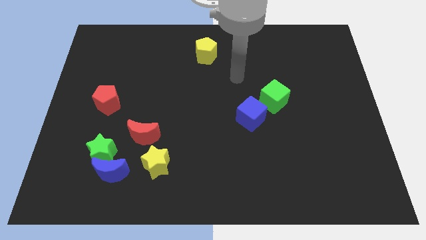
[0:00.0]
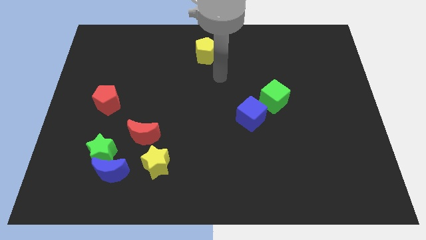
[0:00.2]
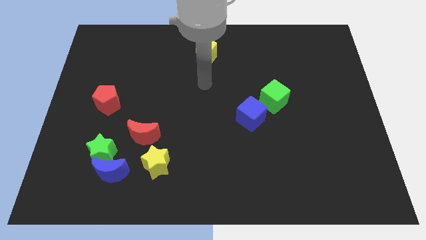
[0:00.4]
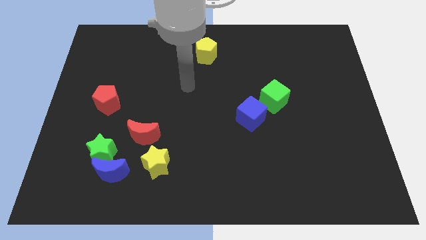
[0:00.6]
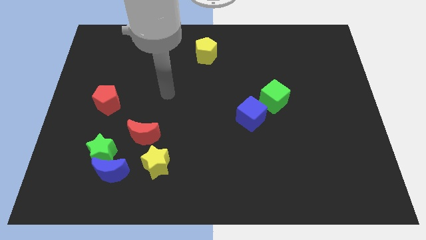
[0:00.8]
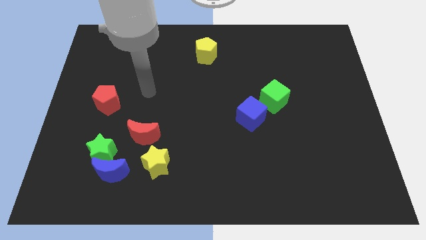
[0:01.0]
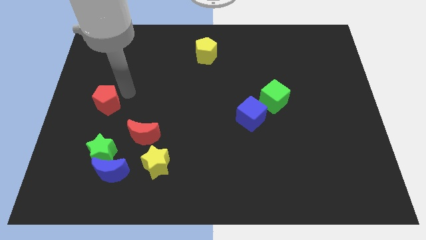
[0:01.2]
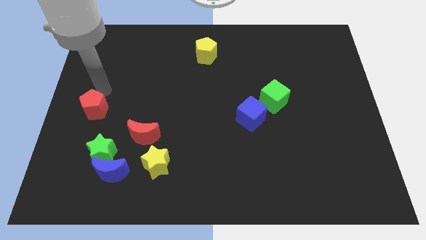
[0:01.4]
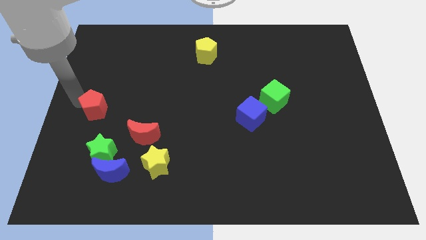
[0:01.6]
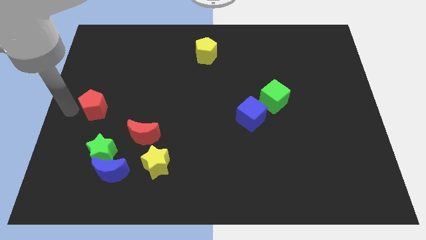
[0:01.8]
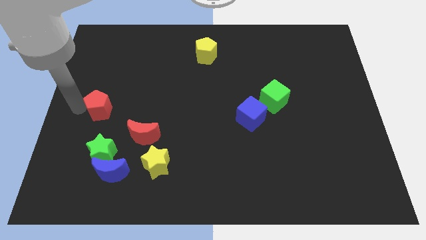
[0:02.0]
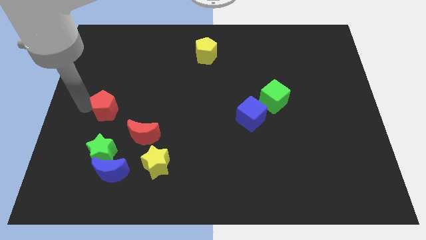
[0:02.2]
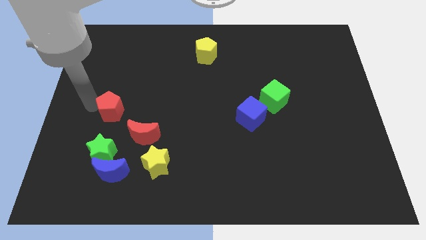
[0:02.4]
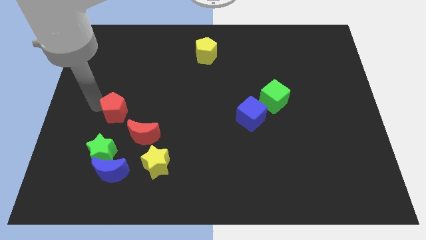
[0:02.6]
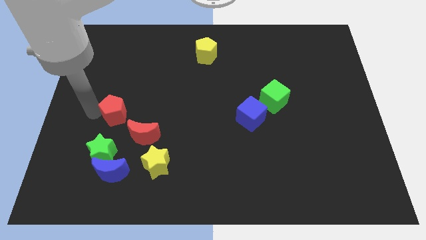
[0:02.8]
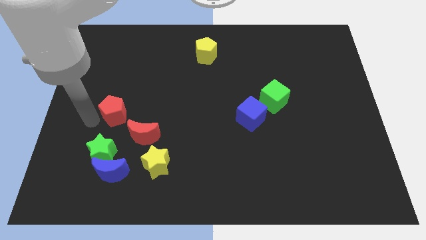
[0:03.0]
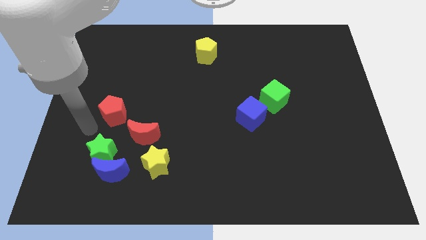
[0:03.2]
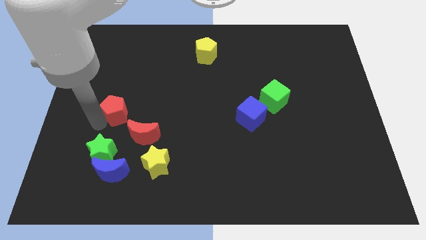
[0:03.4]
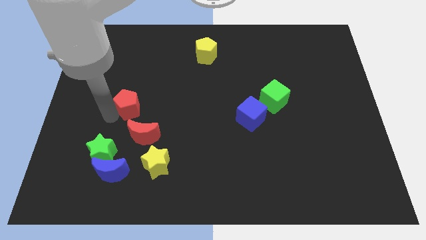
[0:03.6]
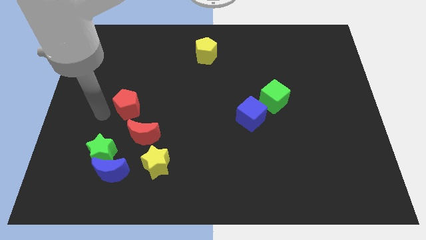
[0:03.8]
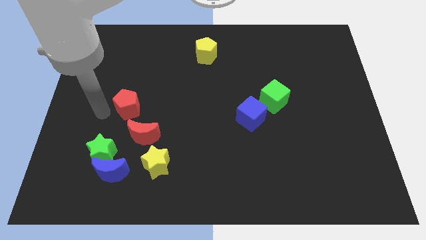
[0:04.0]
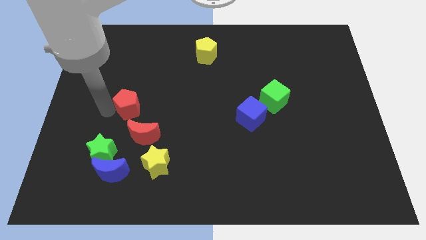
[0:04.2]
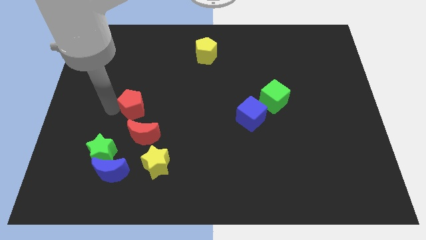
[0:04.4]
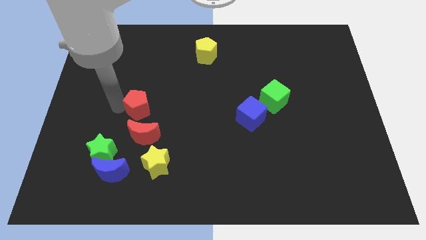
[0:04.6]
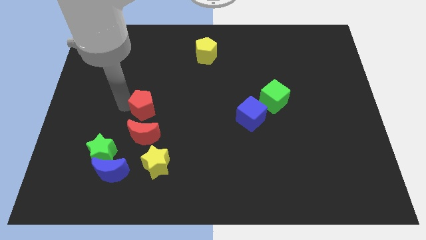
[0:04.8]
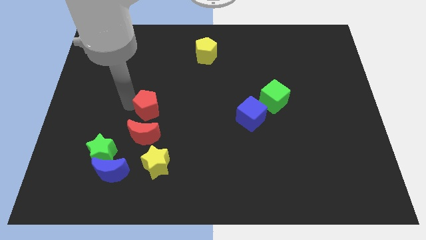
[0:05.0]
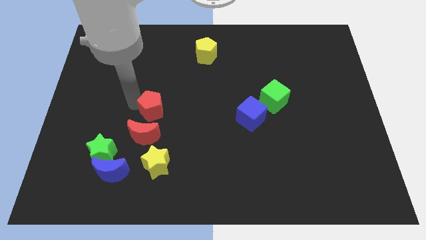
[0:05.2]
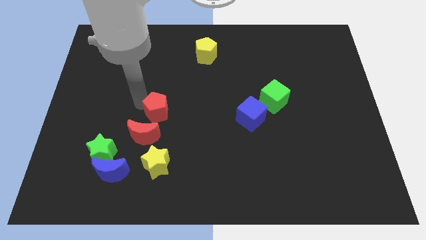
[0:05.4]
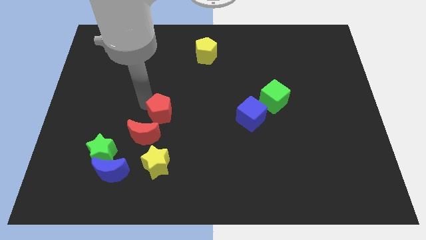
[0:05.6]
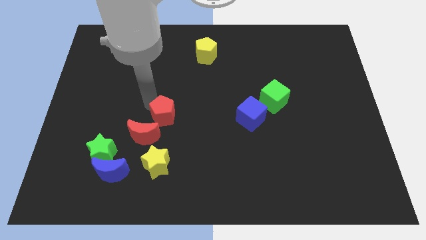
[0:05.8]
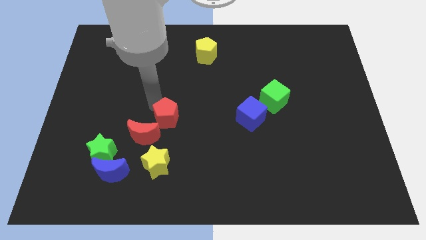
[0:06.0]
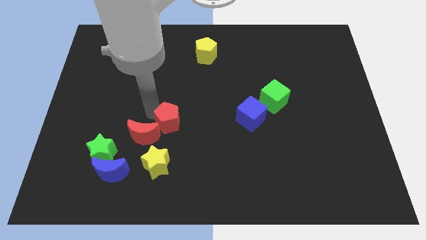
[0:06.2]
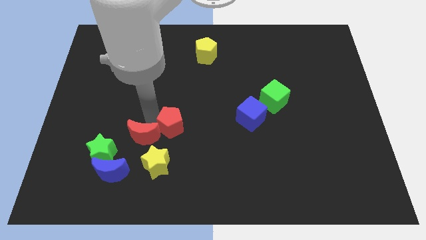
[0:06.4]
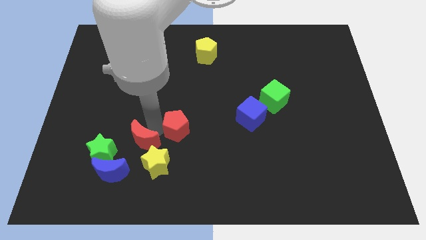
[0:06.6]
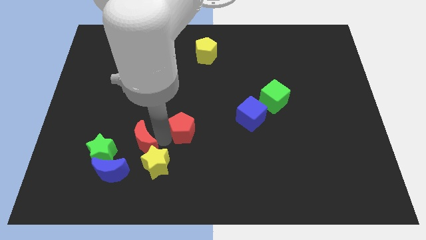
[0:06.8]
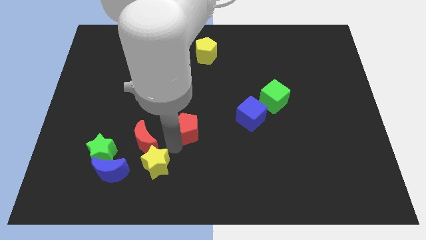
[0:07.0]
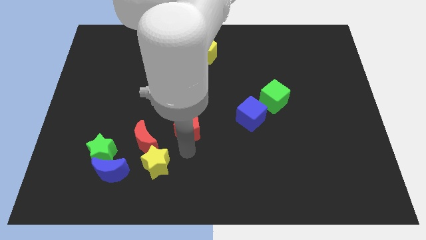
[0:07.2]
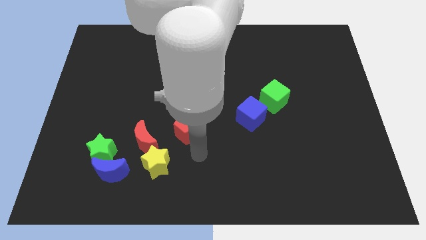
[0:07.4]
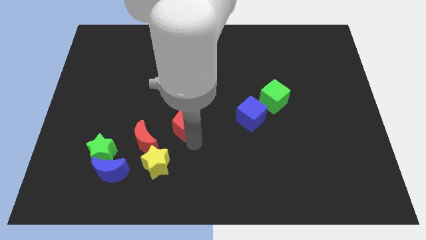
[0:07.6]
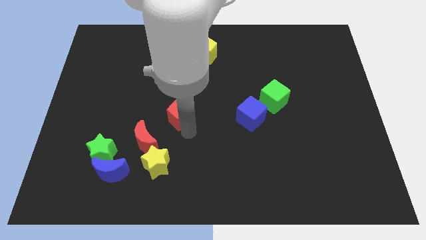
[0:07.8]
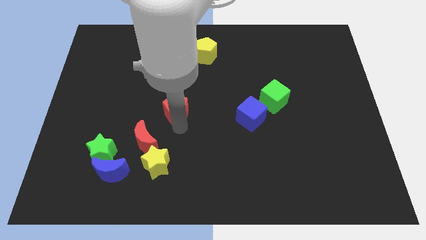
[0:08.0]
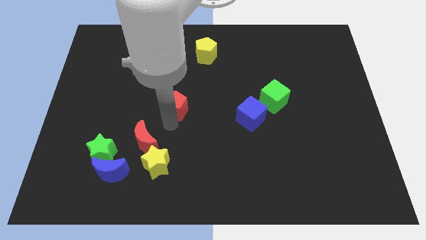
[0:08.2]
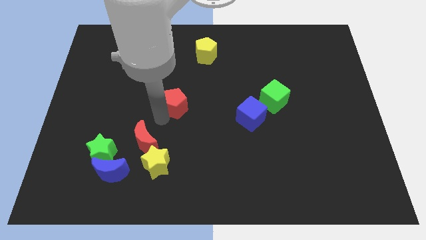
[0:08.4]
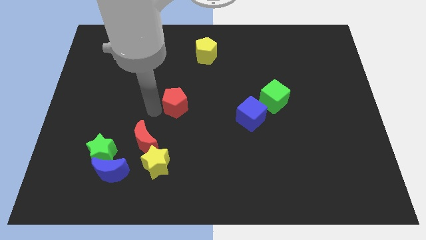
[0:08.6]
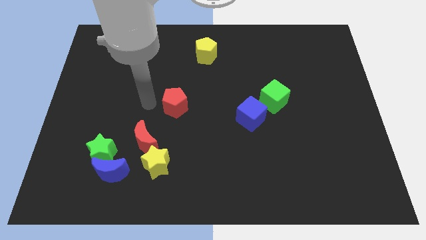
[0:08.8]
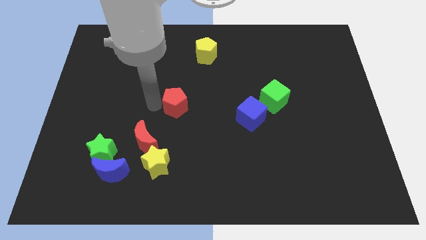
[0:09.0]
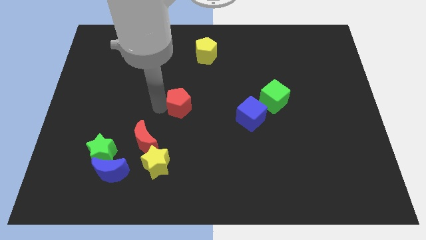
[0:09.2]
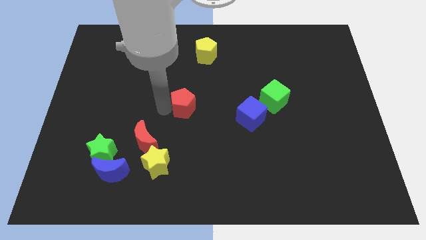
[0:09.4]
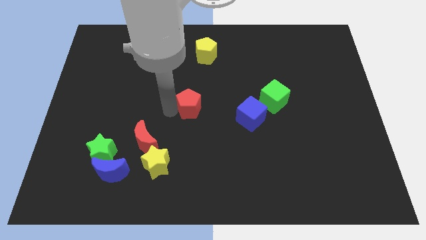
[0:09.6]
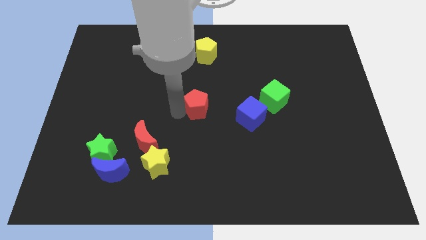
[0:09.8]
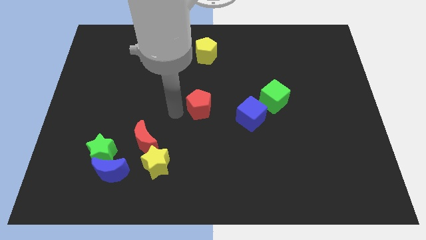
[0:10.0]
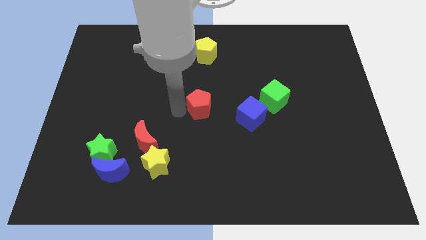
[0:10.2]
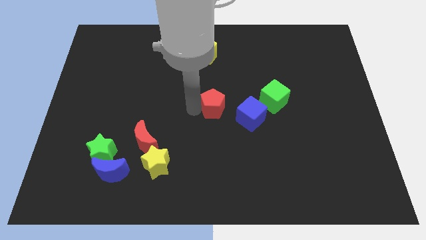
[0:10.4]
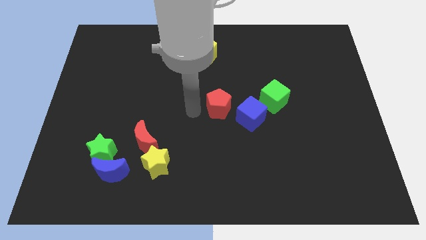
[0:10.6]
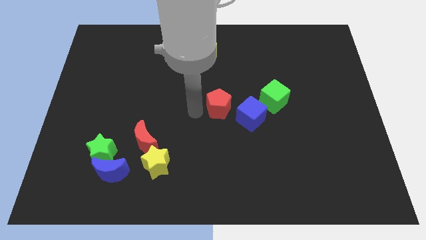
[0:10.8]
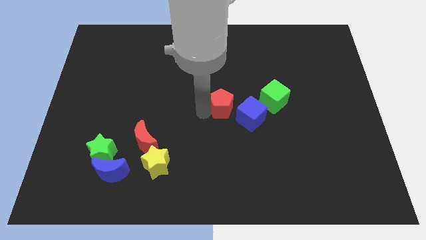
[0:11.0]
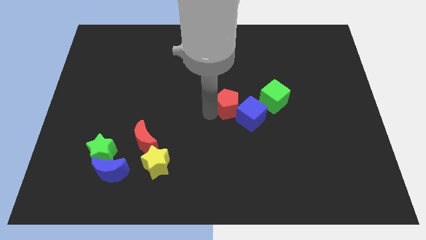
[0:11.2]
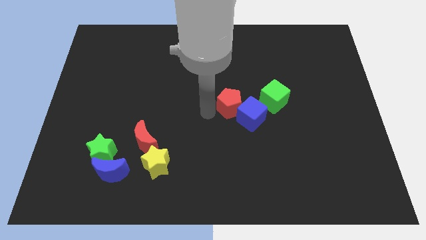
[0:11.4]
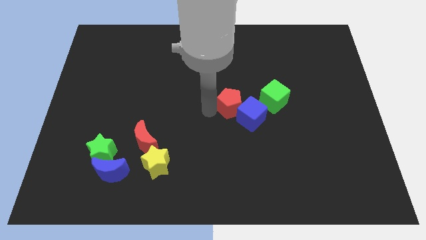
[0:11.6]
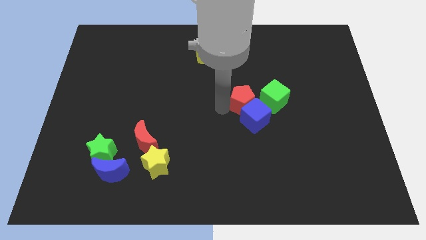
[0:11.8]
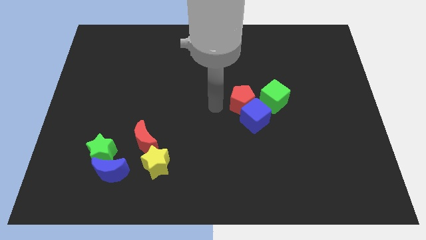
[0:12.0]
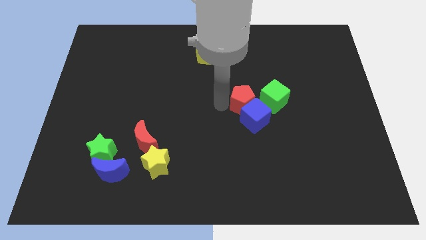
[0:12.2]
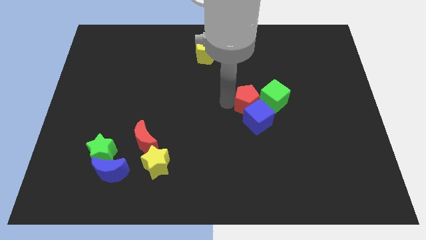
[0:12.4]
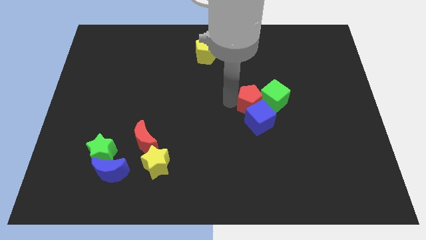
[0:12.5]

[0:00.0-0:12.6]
move the red pentagon to the green cube

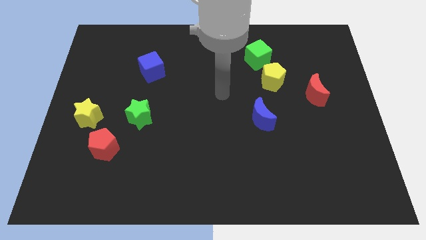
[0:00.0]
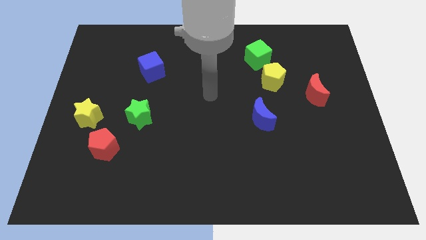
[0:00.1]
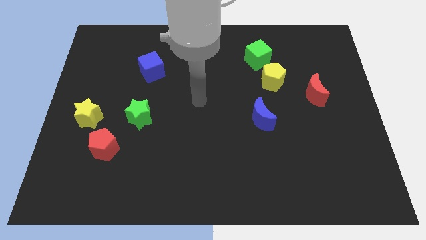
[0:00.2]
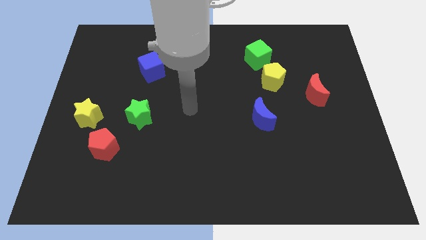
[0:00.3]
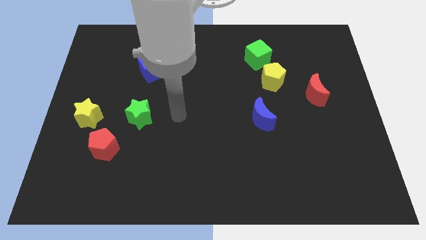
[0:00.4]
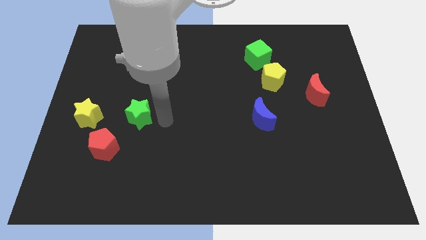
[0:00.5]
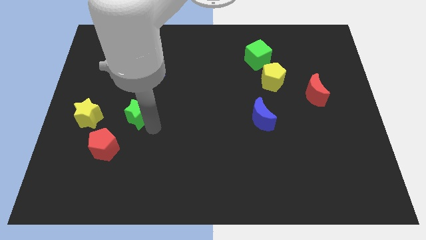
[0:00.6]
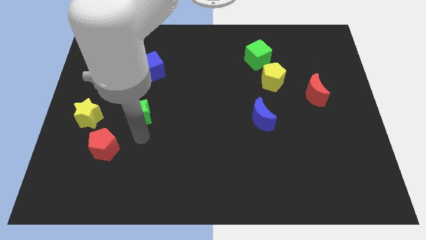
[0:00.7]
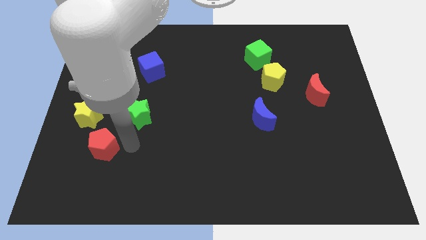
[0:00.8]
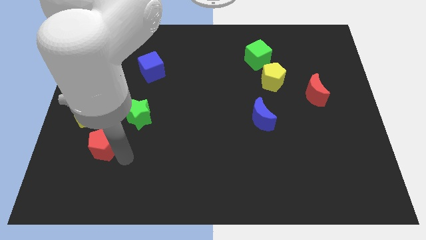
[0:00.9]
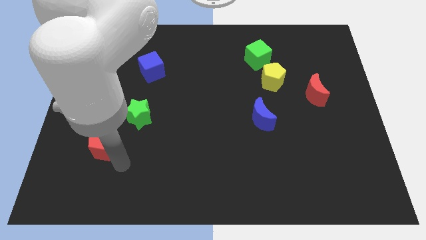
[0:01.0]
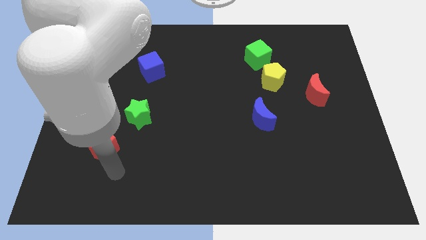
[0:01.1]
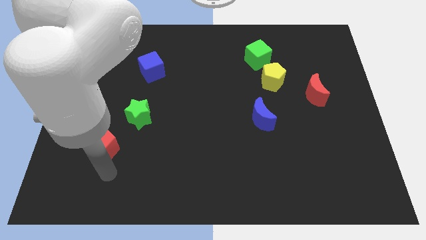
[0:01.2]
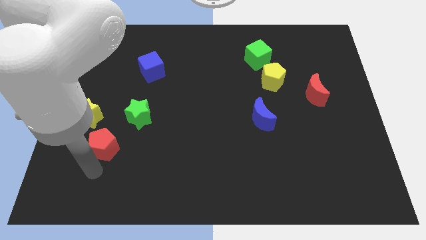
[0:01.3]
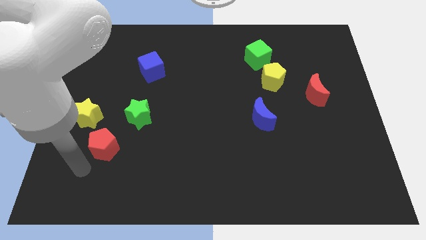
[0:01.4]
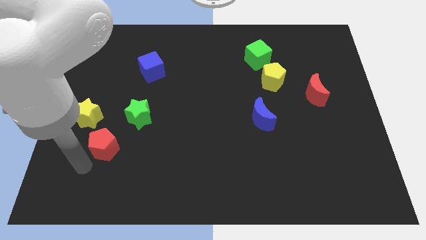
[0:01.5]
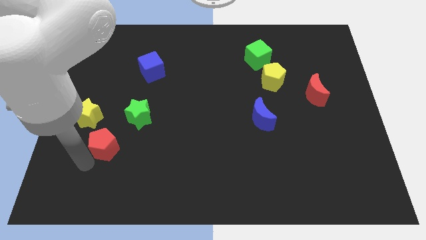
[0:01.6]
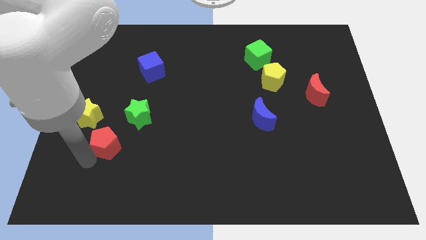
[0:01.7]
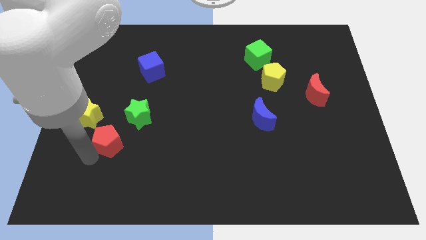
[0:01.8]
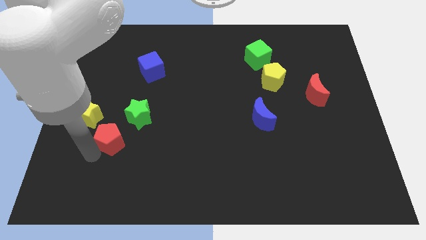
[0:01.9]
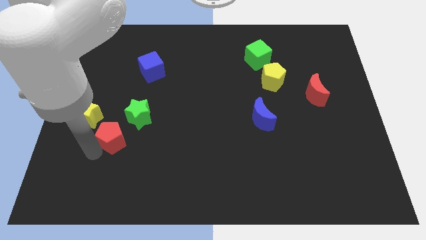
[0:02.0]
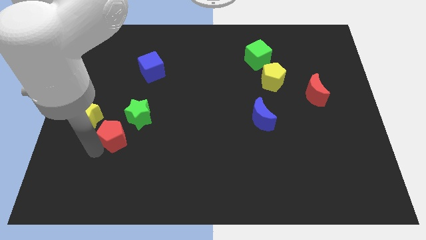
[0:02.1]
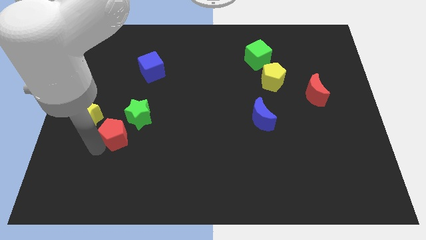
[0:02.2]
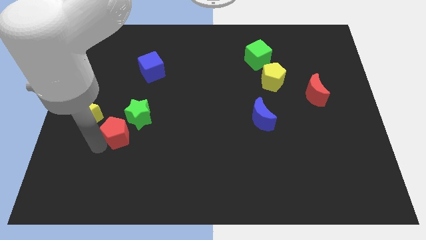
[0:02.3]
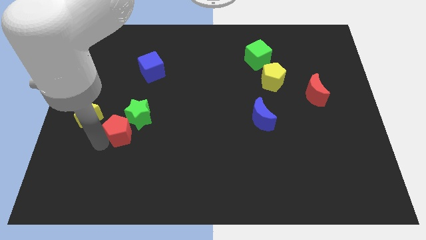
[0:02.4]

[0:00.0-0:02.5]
move the red pentagon close to the green star
